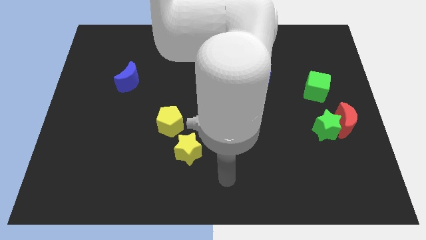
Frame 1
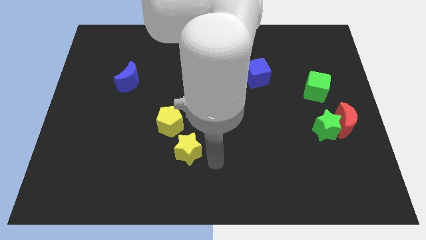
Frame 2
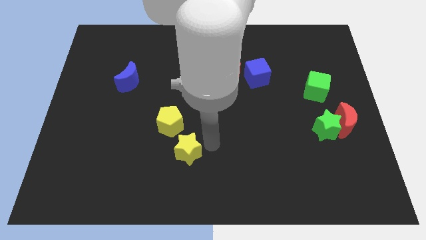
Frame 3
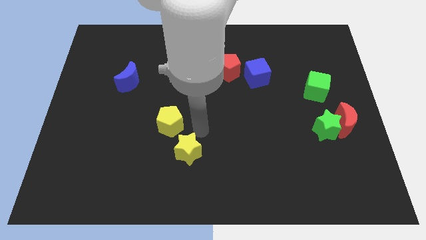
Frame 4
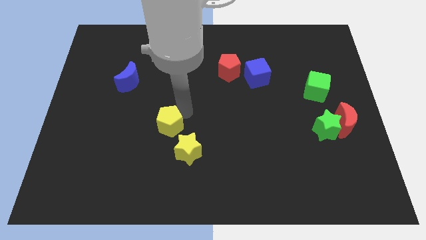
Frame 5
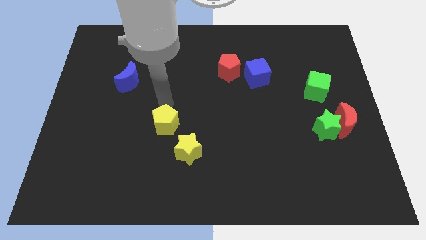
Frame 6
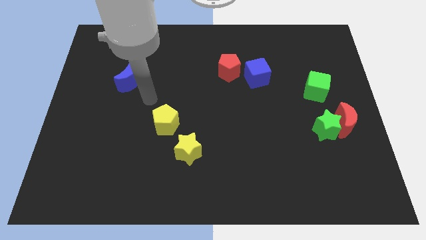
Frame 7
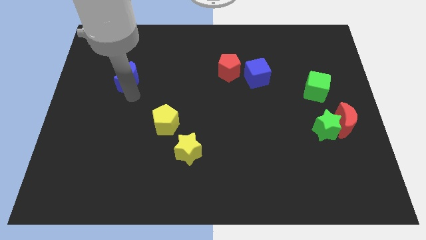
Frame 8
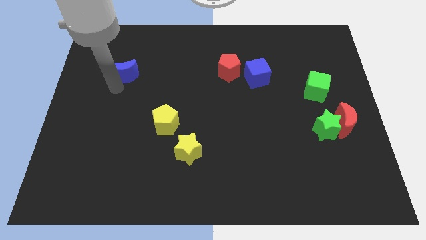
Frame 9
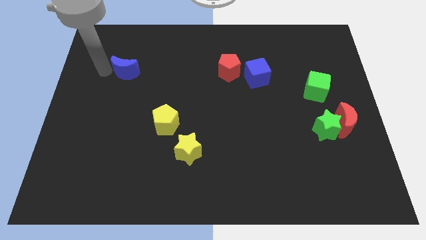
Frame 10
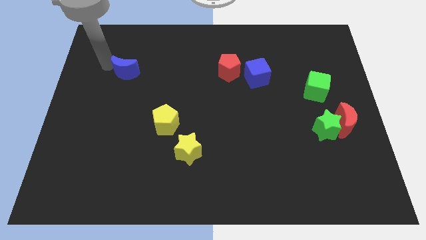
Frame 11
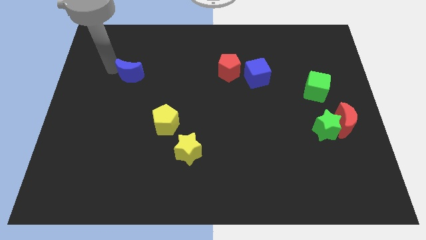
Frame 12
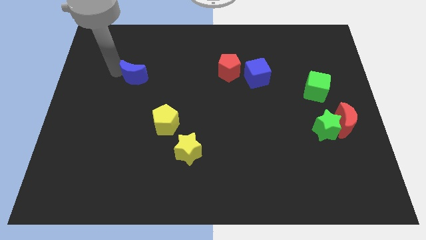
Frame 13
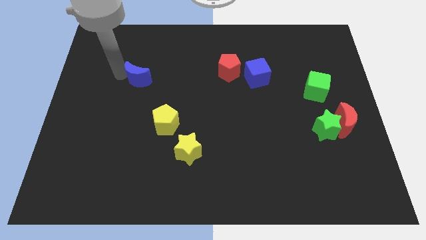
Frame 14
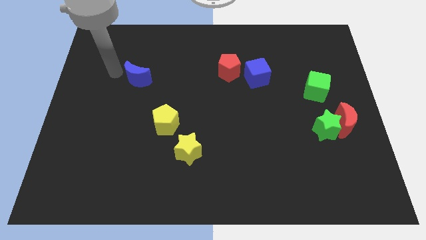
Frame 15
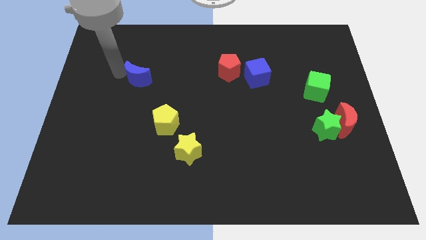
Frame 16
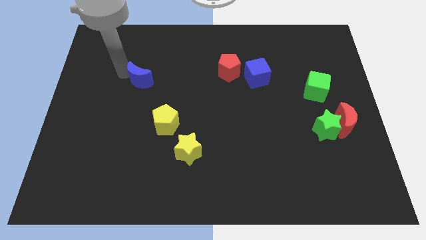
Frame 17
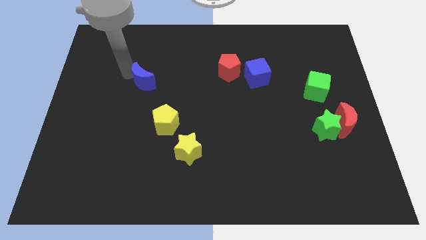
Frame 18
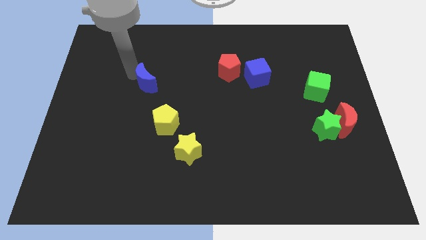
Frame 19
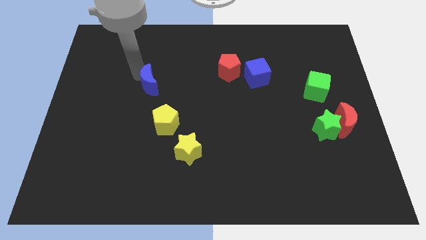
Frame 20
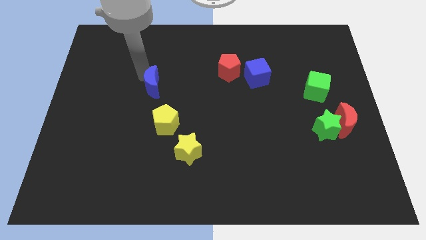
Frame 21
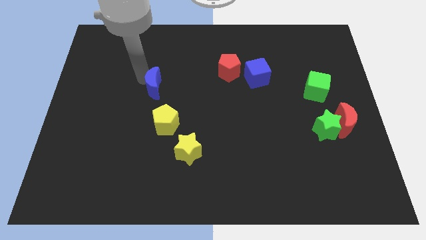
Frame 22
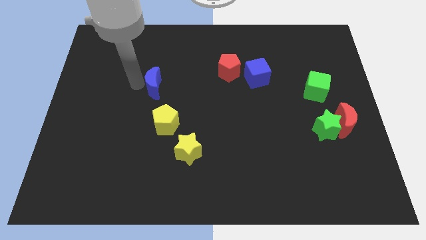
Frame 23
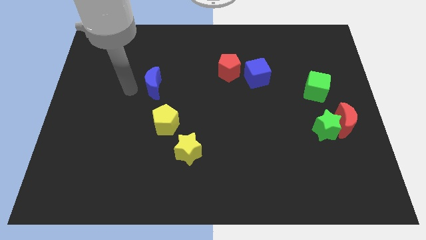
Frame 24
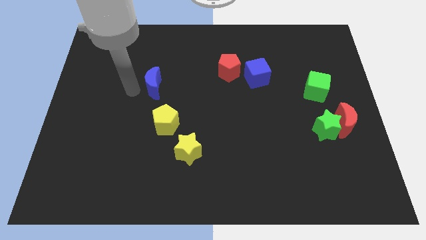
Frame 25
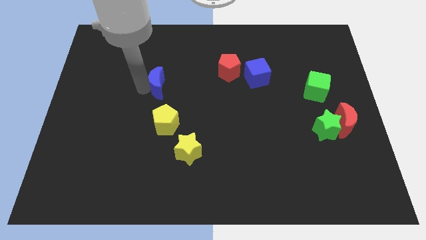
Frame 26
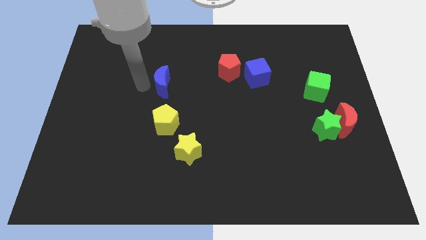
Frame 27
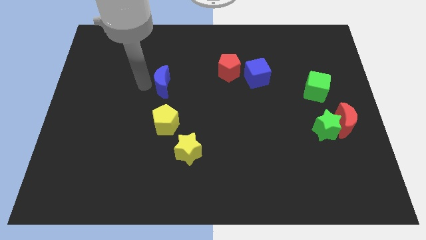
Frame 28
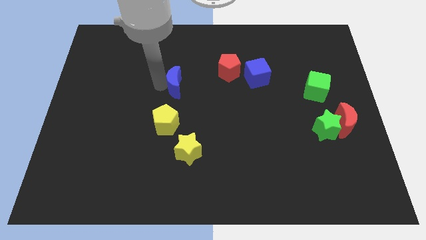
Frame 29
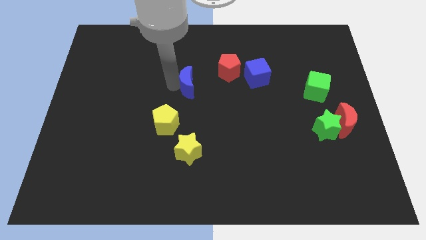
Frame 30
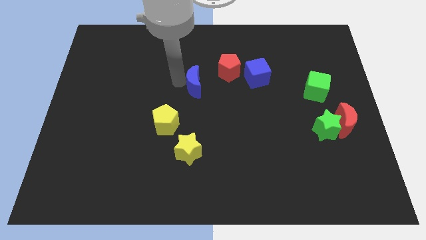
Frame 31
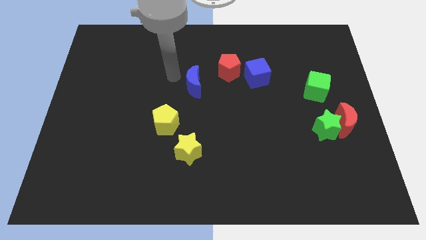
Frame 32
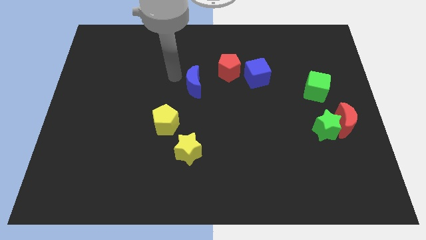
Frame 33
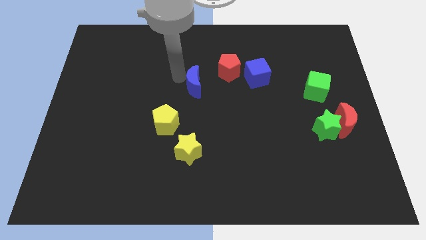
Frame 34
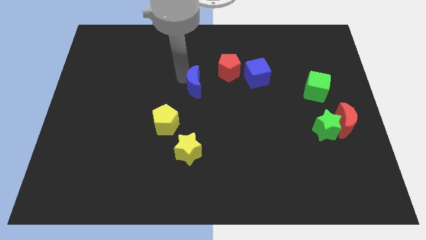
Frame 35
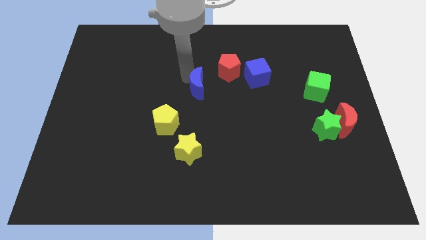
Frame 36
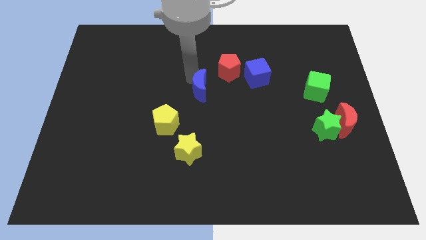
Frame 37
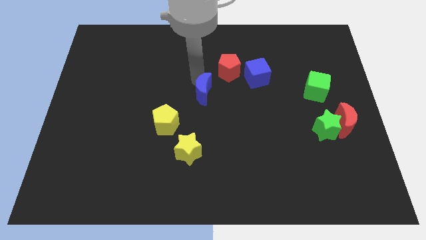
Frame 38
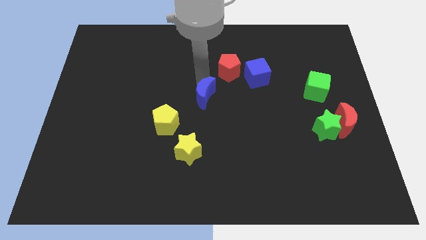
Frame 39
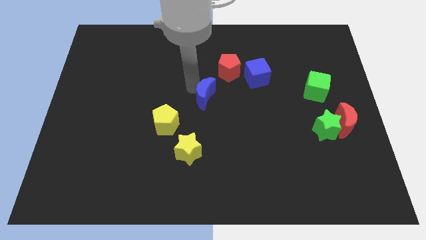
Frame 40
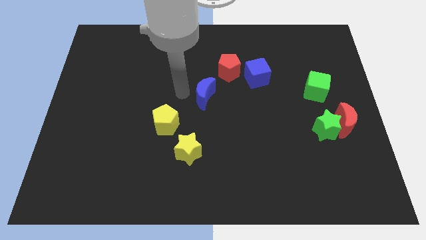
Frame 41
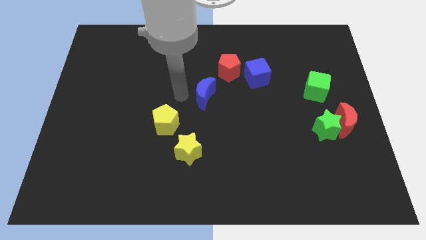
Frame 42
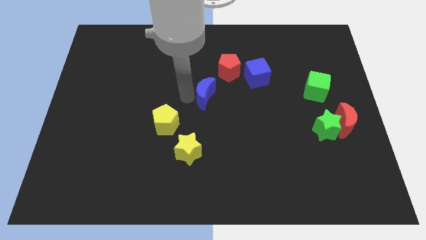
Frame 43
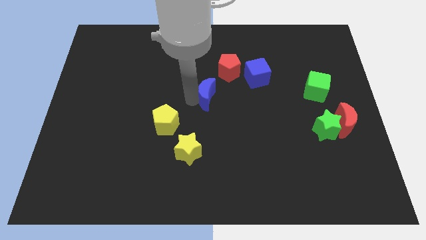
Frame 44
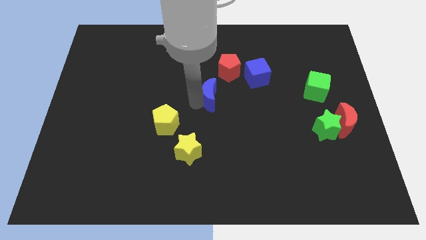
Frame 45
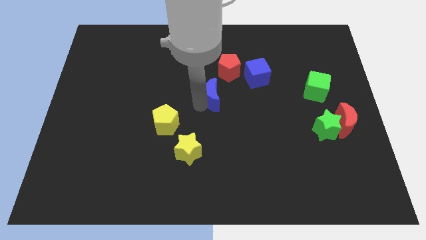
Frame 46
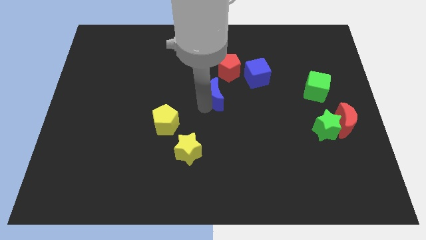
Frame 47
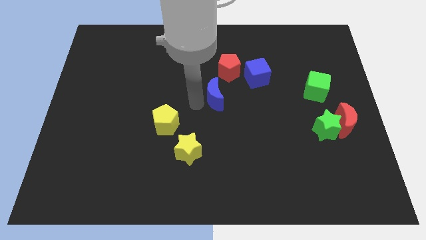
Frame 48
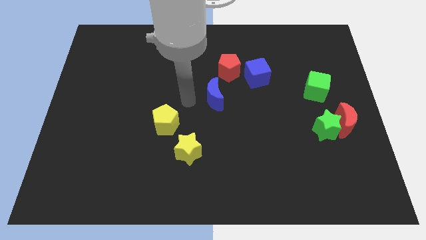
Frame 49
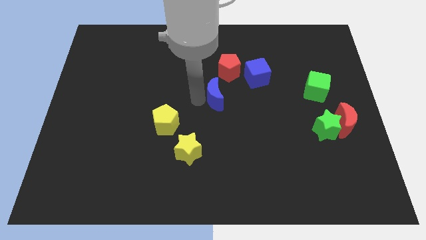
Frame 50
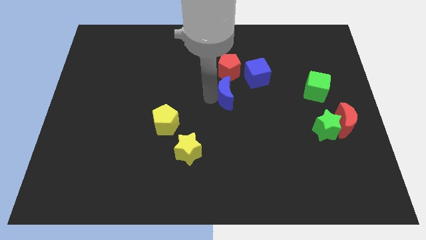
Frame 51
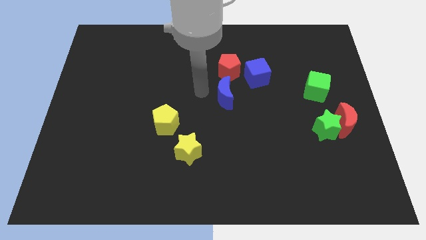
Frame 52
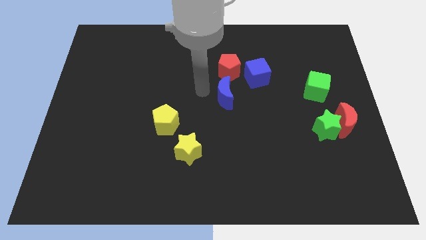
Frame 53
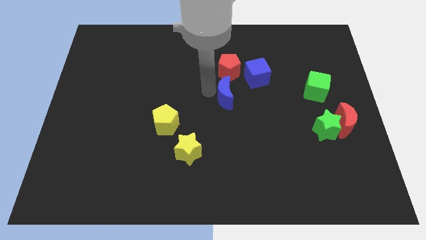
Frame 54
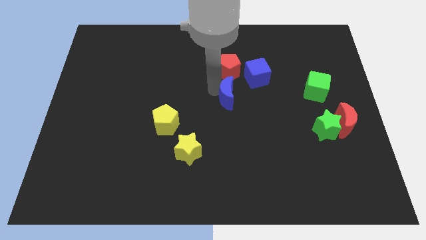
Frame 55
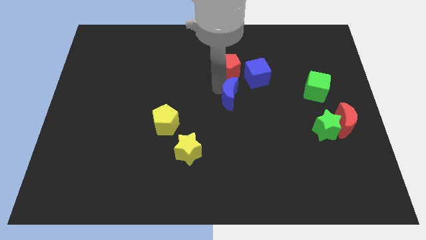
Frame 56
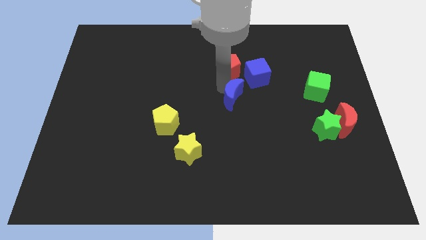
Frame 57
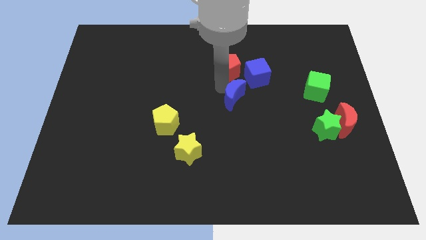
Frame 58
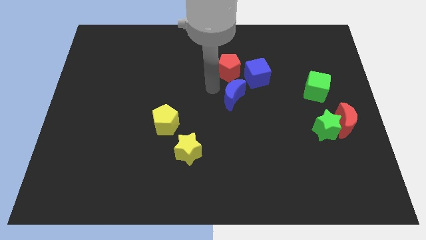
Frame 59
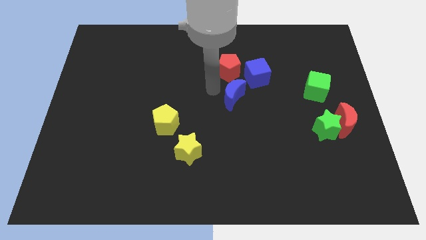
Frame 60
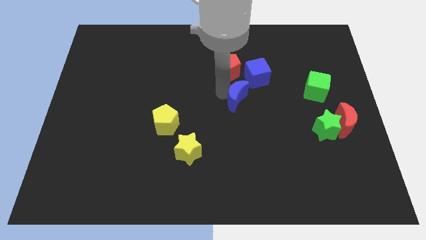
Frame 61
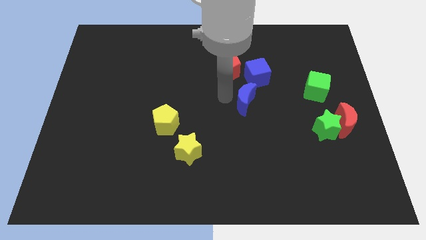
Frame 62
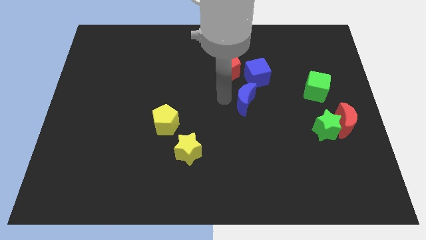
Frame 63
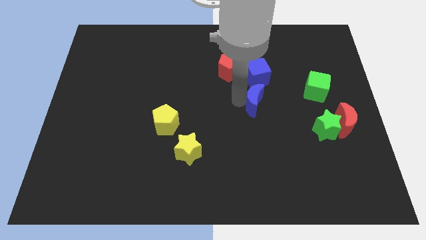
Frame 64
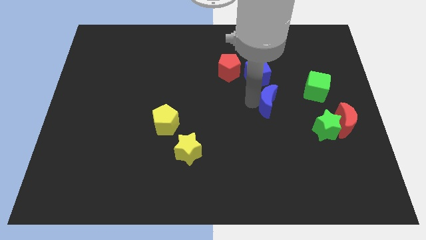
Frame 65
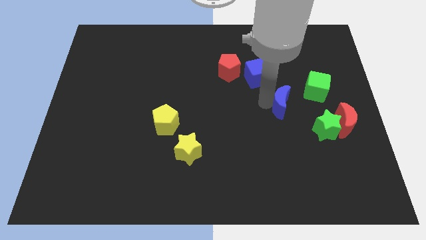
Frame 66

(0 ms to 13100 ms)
slide the blue moon diagonally up and to the left of the green star
